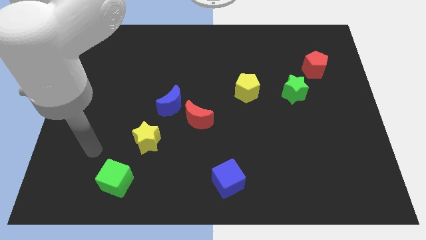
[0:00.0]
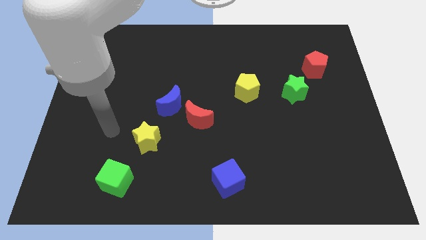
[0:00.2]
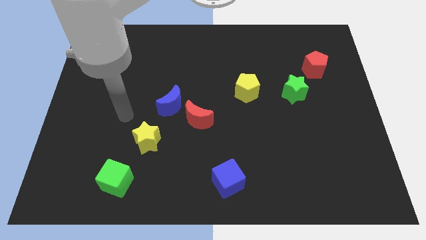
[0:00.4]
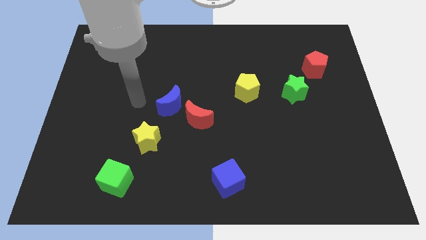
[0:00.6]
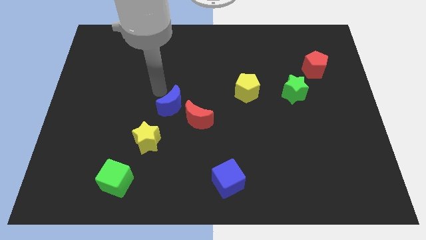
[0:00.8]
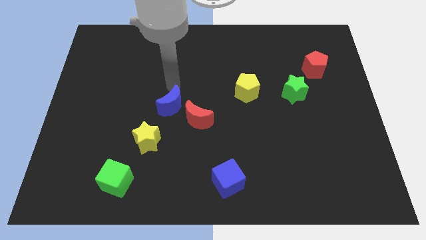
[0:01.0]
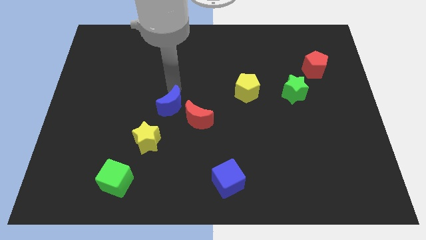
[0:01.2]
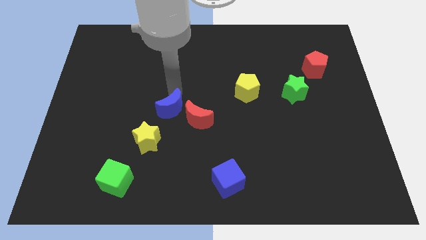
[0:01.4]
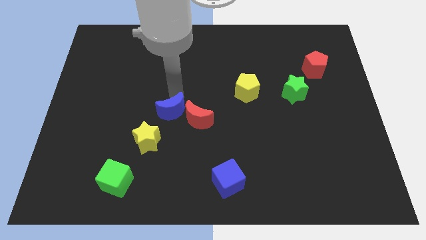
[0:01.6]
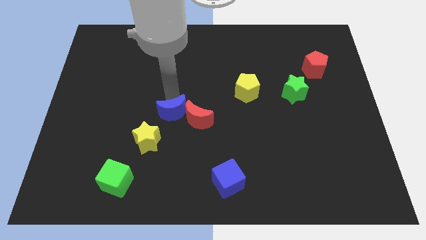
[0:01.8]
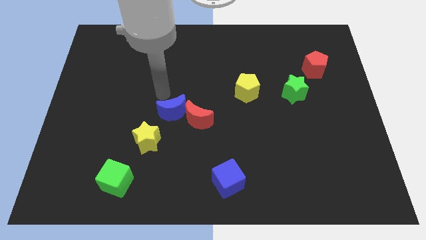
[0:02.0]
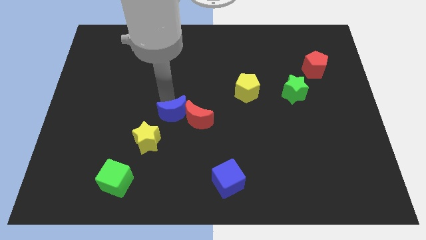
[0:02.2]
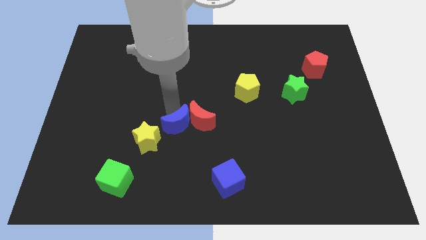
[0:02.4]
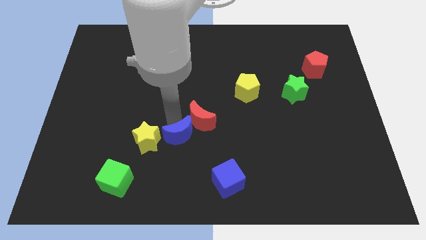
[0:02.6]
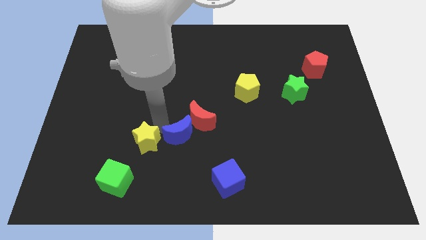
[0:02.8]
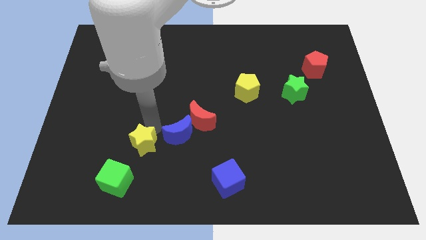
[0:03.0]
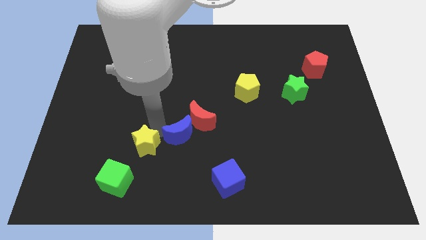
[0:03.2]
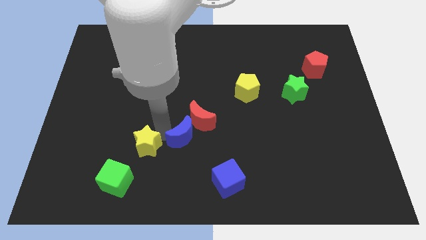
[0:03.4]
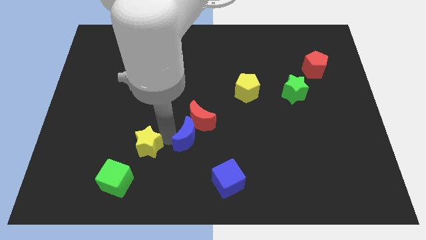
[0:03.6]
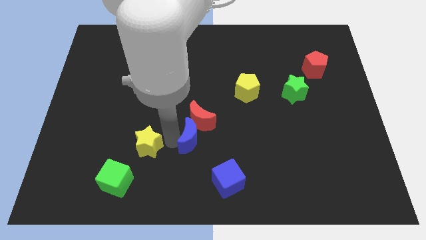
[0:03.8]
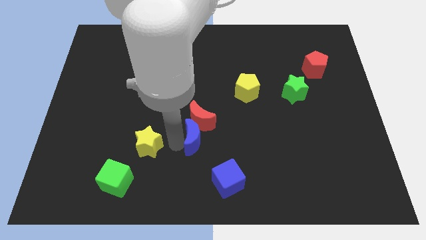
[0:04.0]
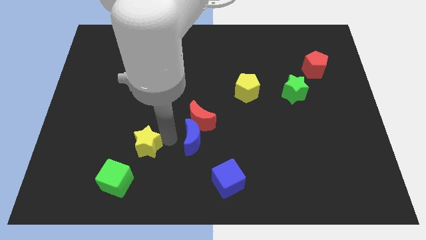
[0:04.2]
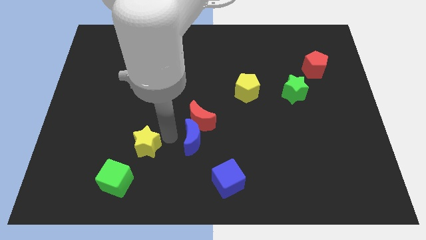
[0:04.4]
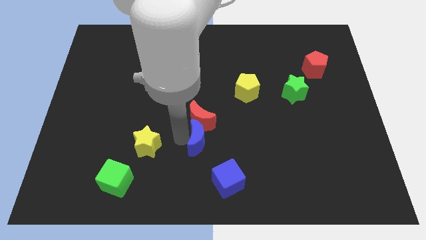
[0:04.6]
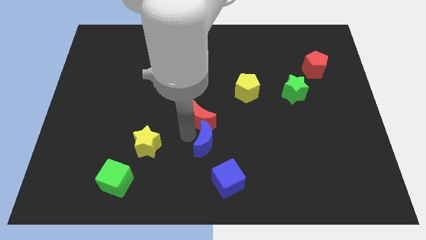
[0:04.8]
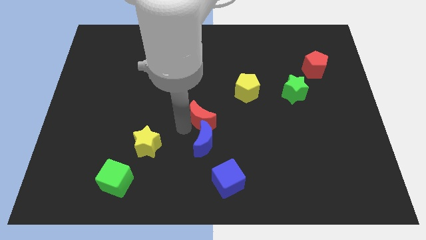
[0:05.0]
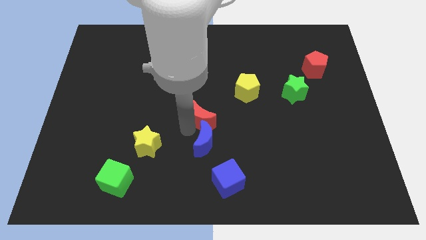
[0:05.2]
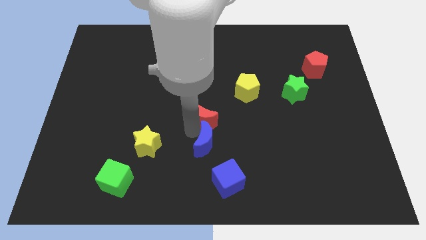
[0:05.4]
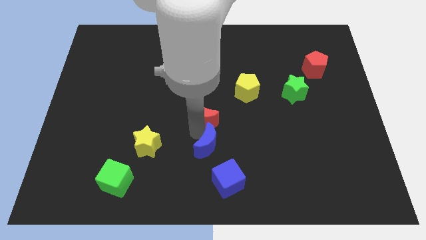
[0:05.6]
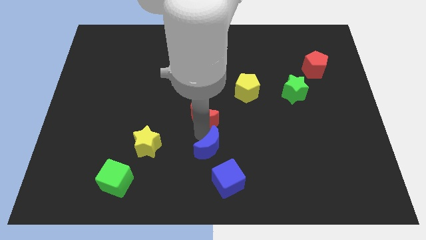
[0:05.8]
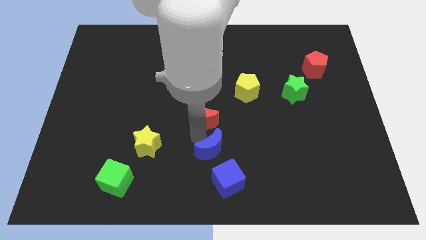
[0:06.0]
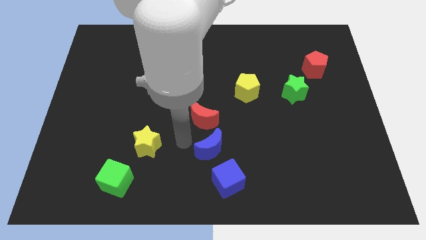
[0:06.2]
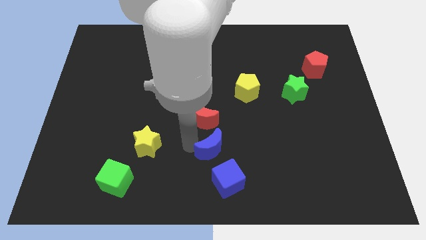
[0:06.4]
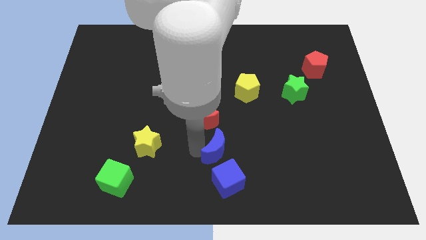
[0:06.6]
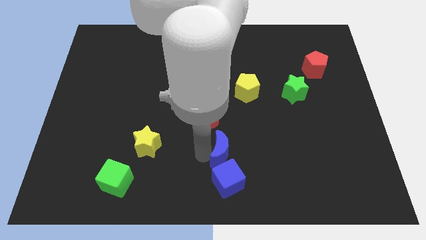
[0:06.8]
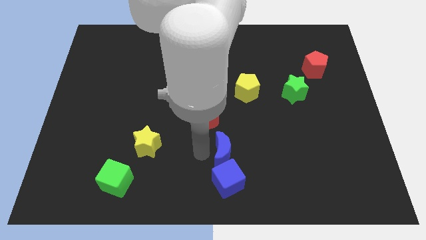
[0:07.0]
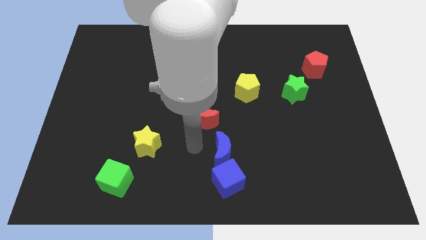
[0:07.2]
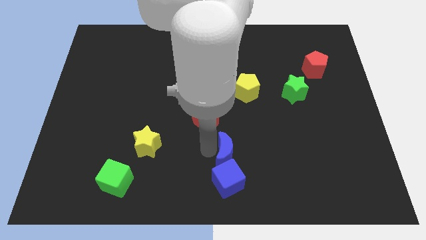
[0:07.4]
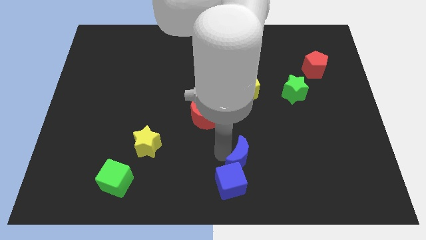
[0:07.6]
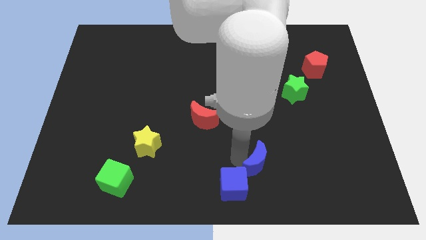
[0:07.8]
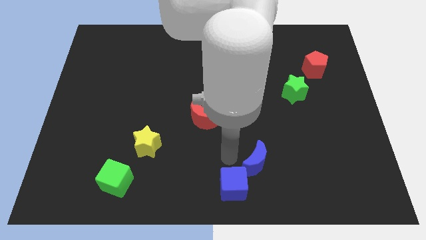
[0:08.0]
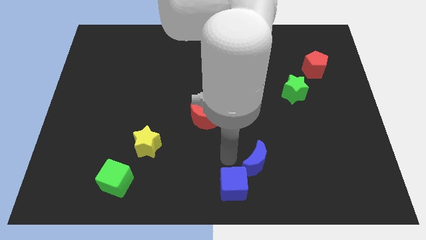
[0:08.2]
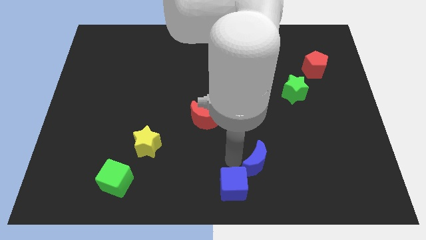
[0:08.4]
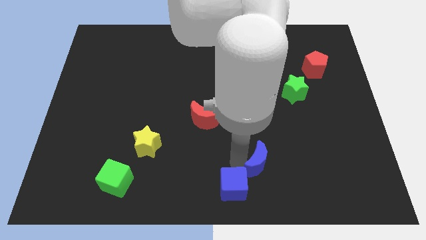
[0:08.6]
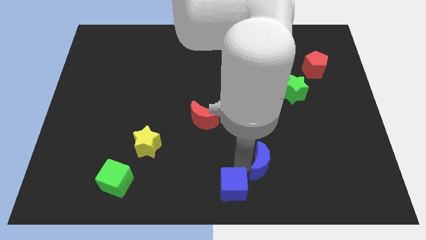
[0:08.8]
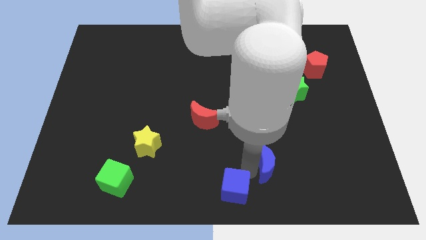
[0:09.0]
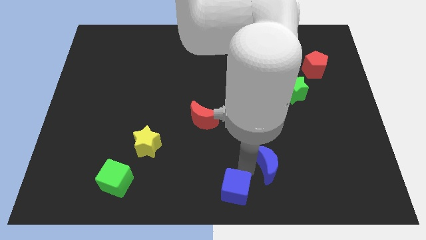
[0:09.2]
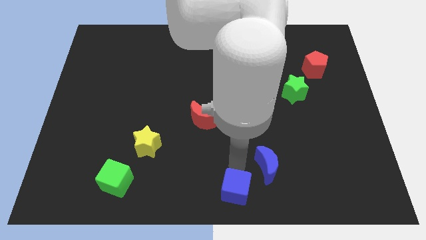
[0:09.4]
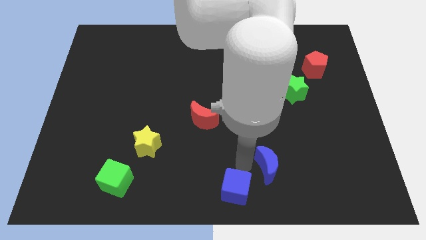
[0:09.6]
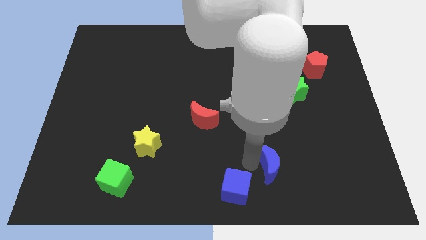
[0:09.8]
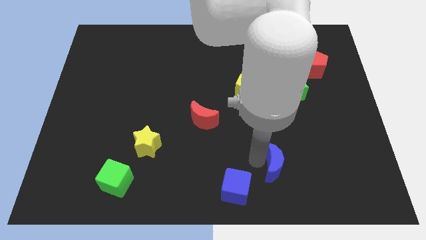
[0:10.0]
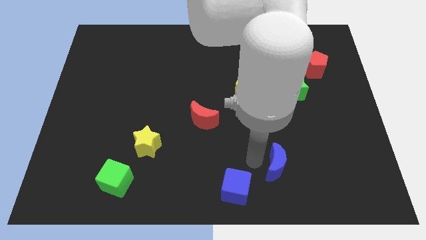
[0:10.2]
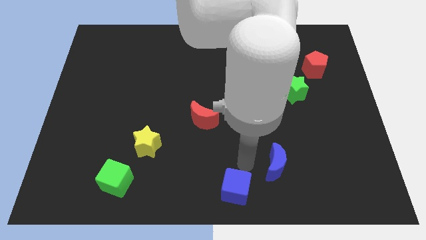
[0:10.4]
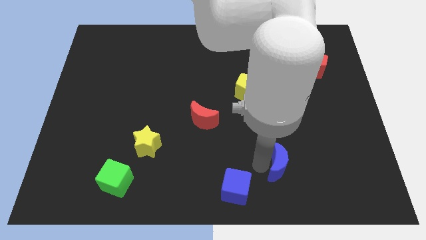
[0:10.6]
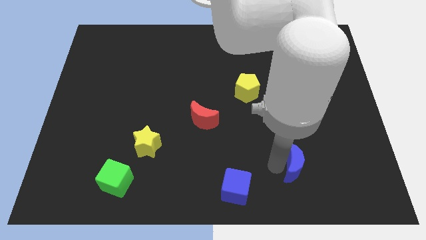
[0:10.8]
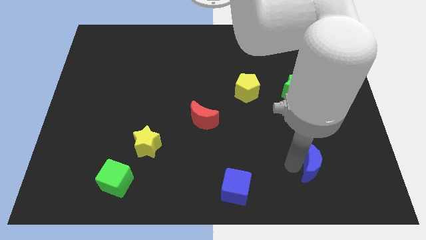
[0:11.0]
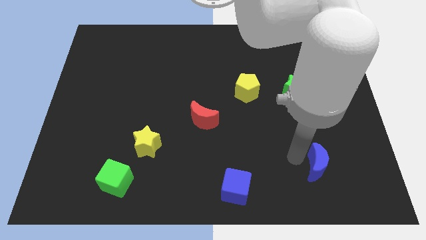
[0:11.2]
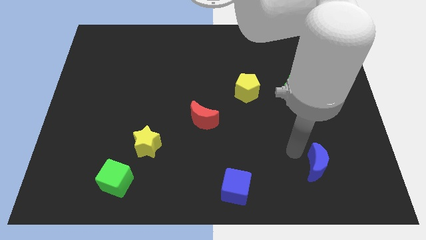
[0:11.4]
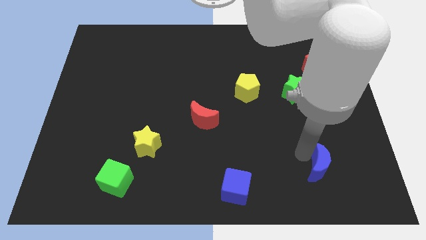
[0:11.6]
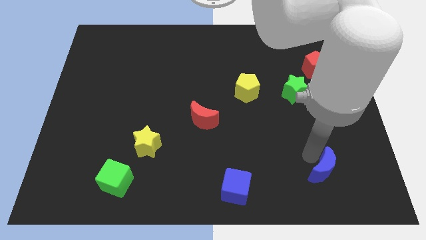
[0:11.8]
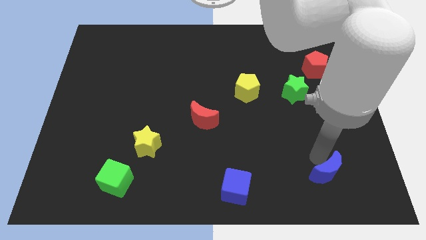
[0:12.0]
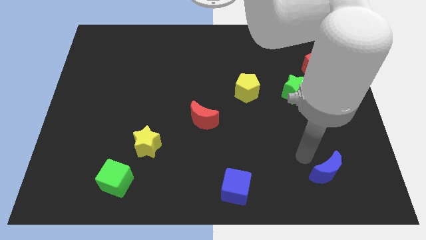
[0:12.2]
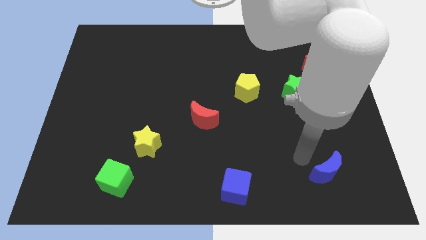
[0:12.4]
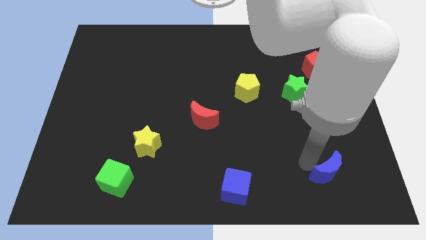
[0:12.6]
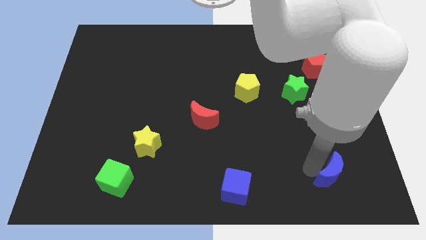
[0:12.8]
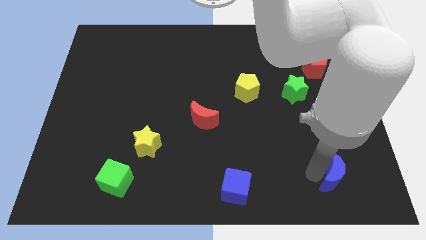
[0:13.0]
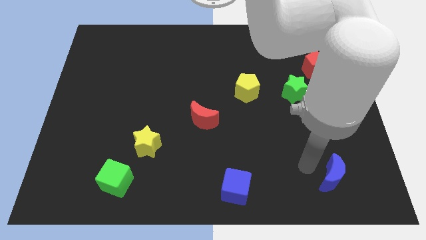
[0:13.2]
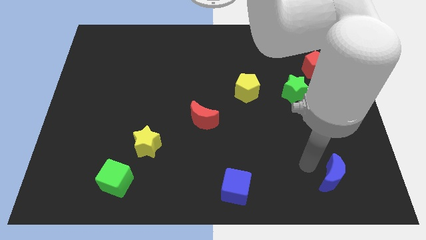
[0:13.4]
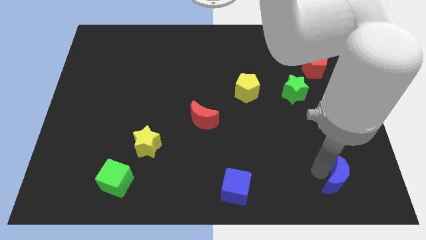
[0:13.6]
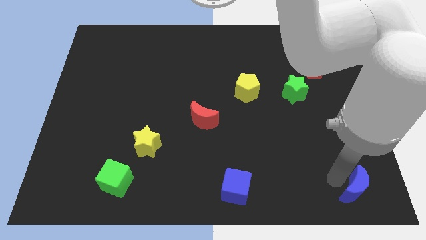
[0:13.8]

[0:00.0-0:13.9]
move the blue moon to the lower right corner
